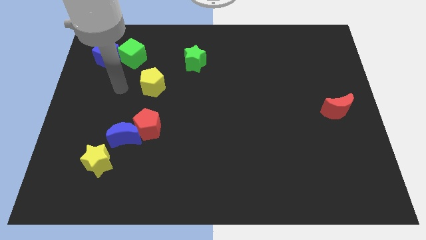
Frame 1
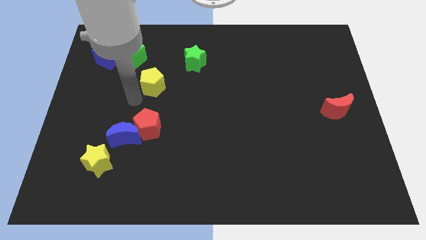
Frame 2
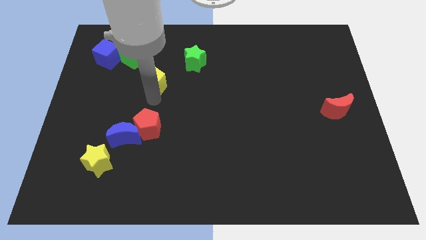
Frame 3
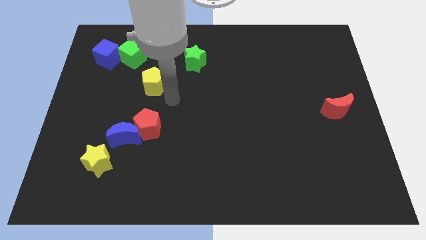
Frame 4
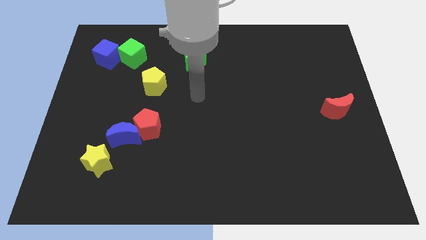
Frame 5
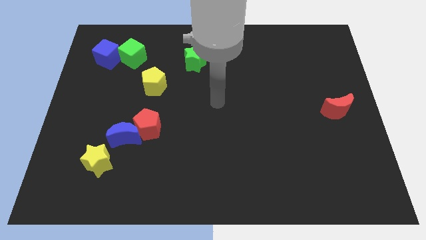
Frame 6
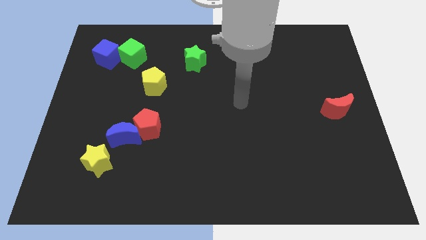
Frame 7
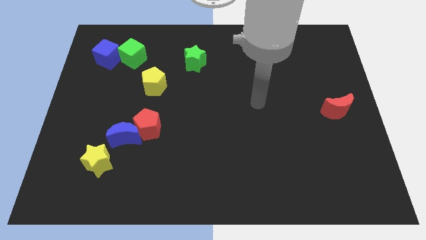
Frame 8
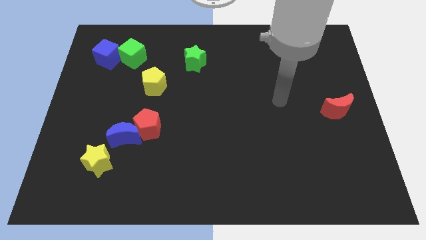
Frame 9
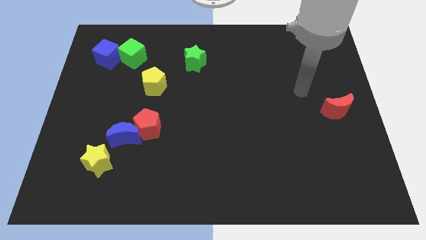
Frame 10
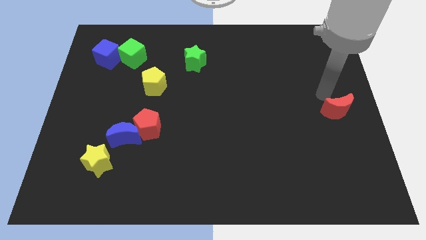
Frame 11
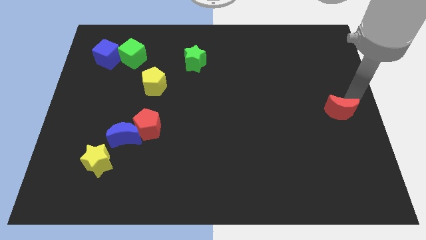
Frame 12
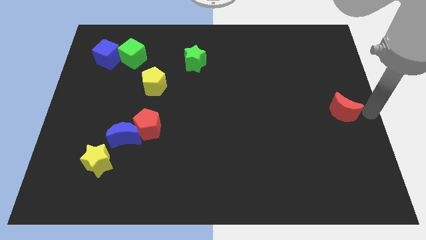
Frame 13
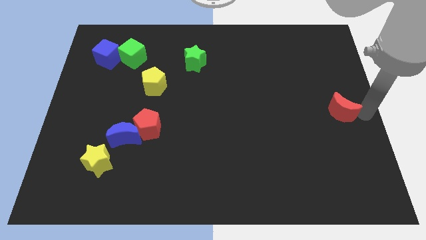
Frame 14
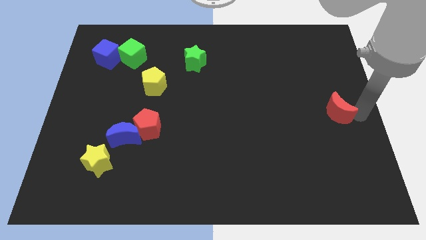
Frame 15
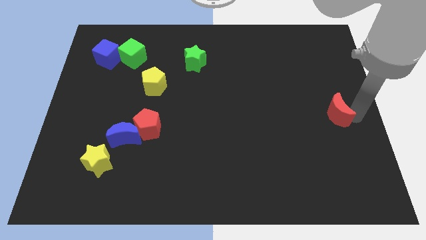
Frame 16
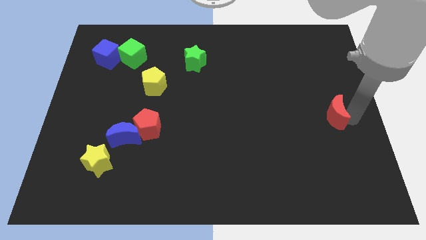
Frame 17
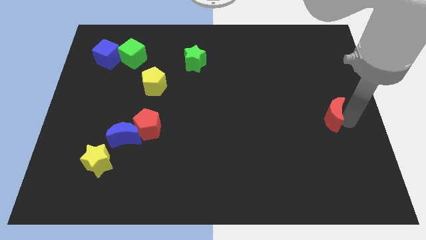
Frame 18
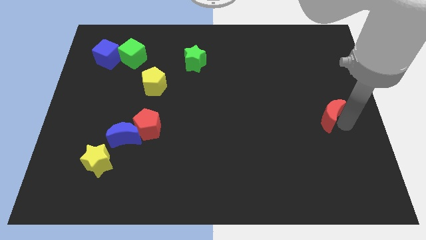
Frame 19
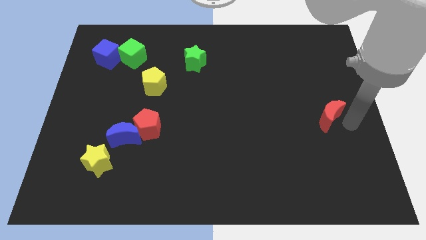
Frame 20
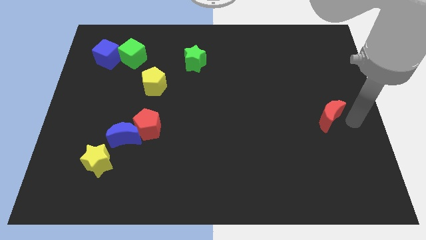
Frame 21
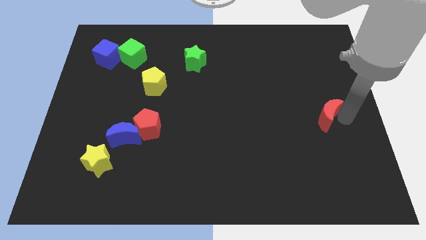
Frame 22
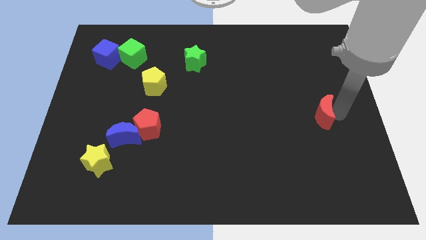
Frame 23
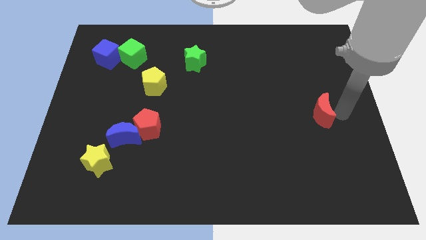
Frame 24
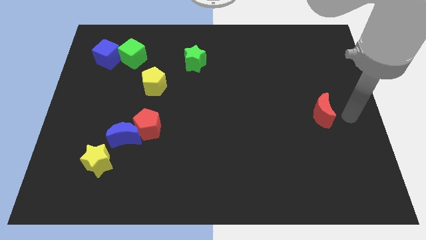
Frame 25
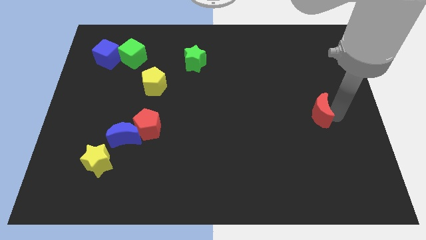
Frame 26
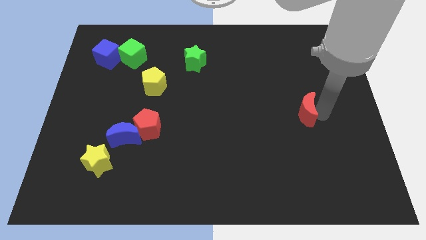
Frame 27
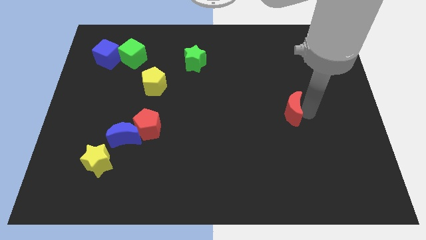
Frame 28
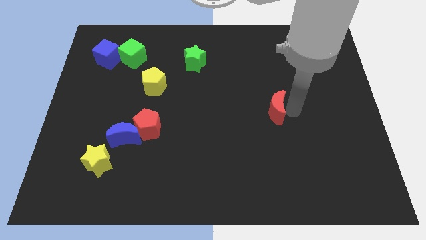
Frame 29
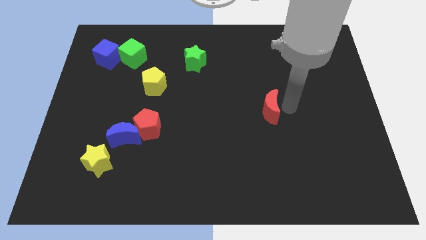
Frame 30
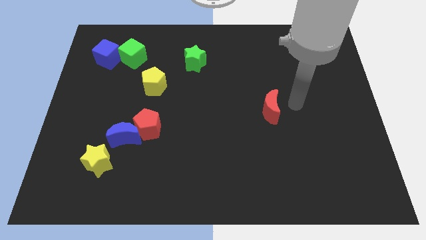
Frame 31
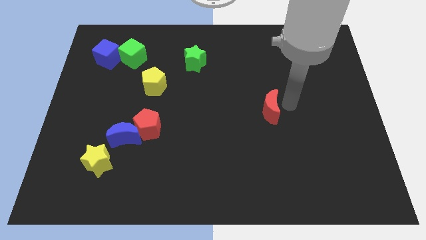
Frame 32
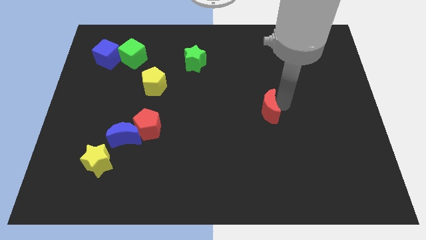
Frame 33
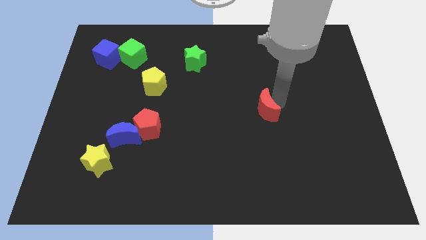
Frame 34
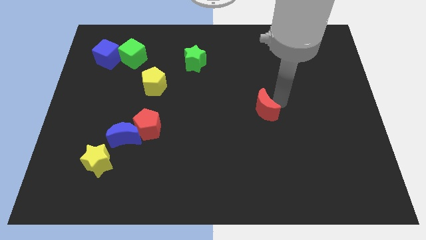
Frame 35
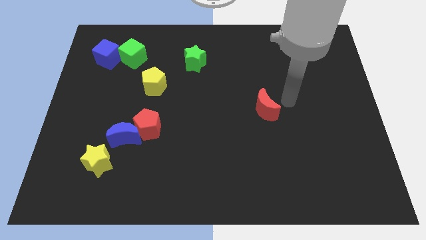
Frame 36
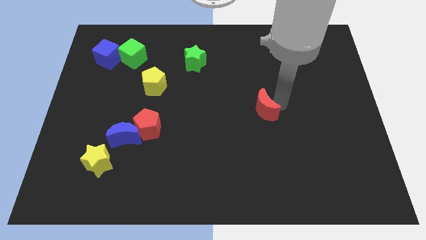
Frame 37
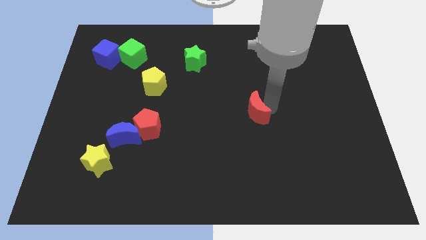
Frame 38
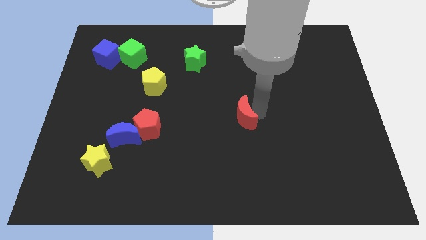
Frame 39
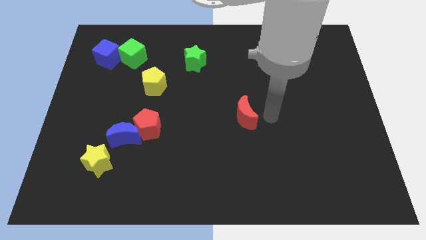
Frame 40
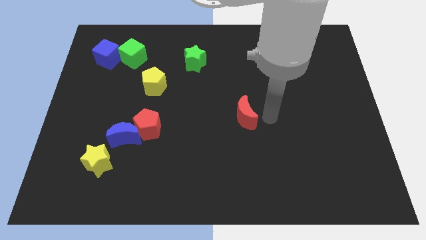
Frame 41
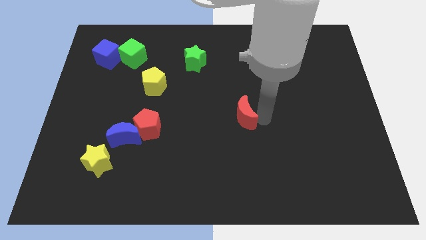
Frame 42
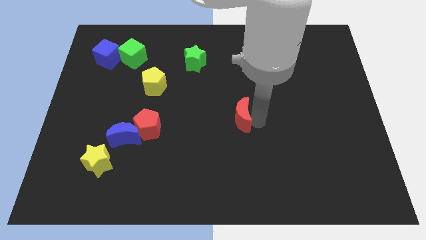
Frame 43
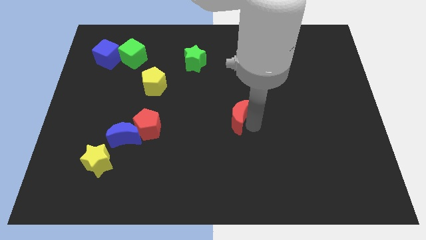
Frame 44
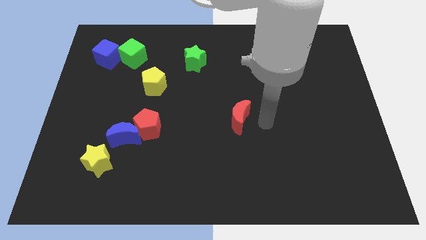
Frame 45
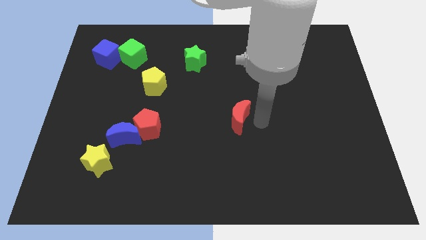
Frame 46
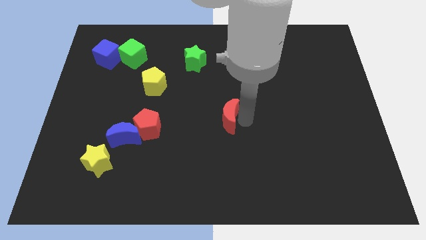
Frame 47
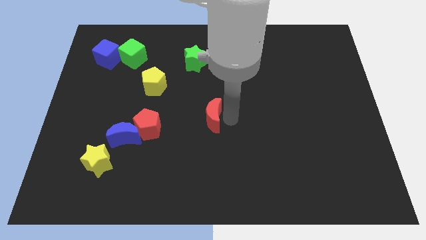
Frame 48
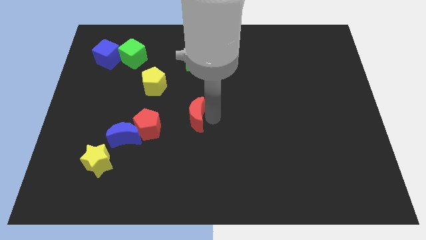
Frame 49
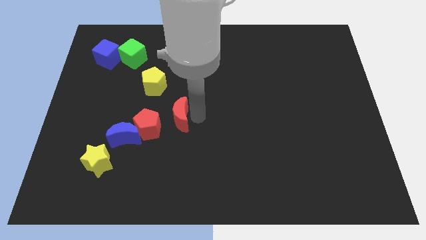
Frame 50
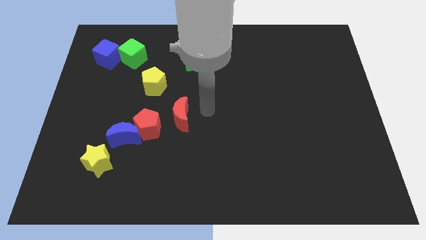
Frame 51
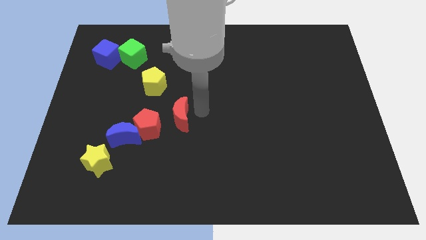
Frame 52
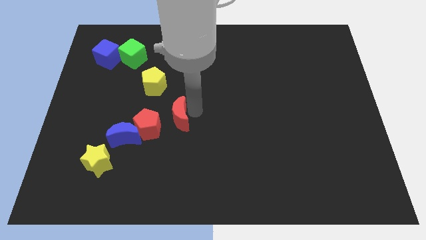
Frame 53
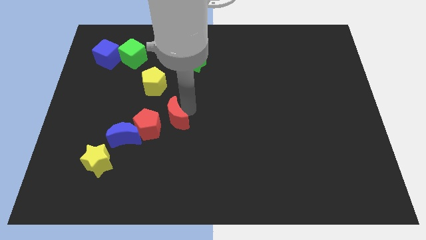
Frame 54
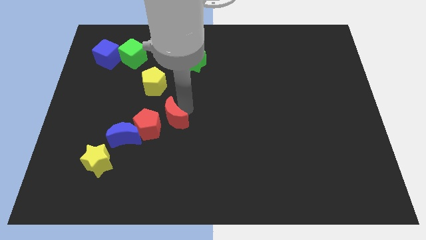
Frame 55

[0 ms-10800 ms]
slide the red moon next to the red pentagon

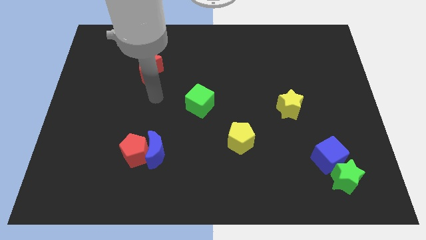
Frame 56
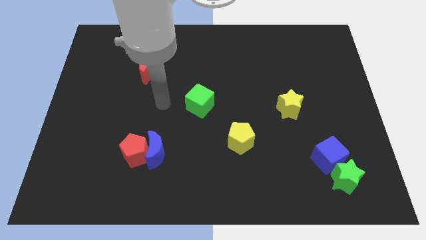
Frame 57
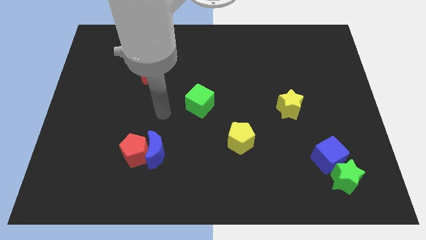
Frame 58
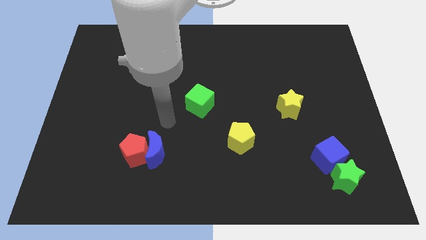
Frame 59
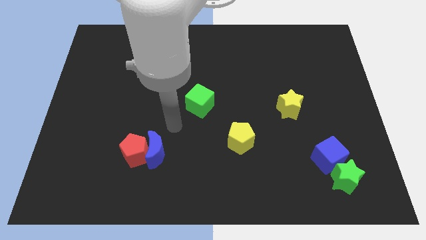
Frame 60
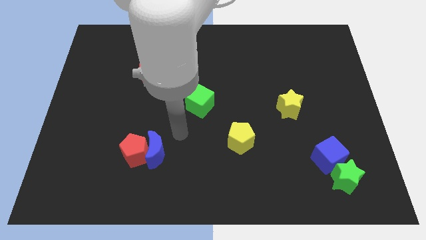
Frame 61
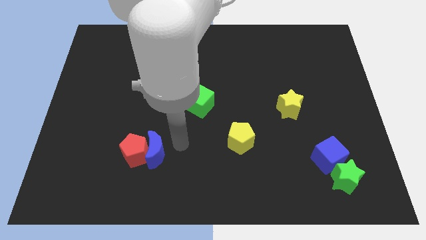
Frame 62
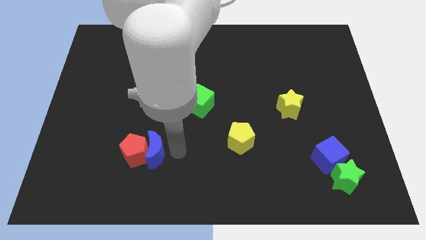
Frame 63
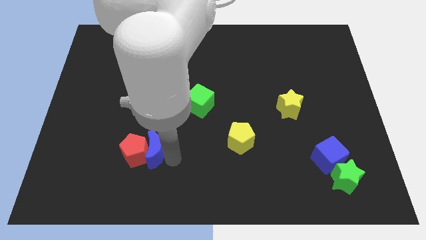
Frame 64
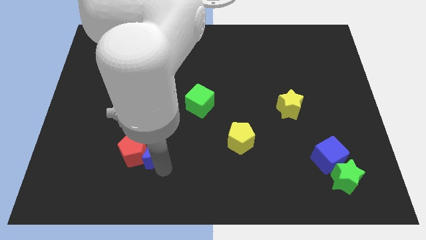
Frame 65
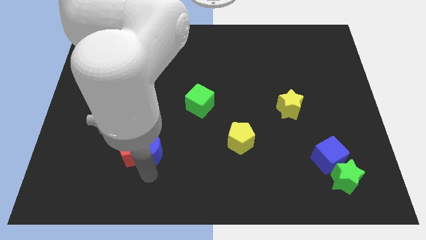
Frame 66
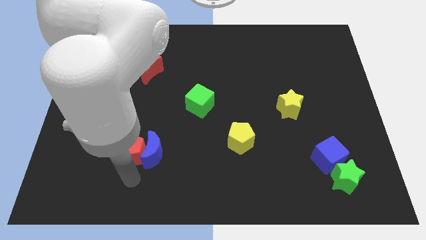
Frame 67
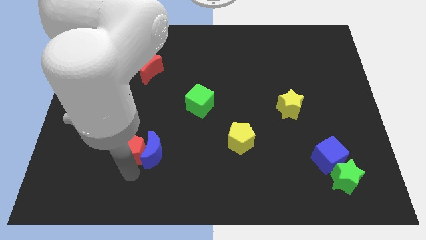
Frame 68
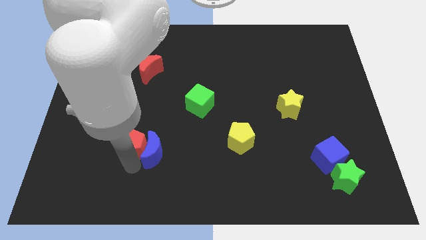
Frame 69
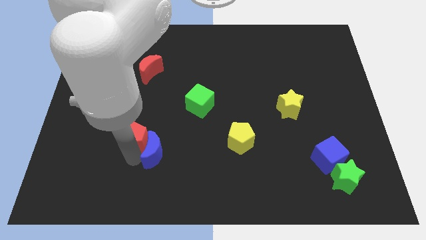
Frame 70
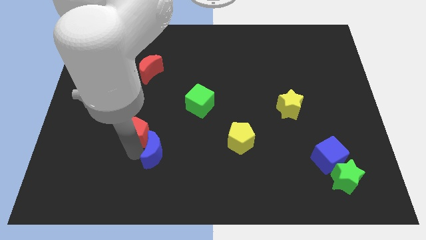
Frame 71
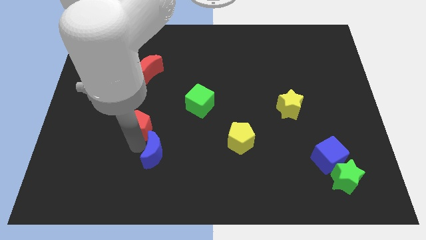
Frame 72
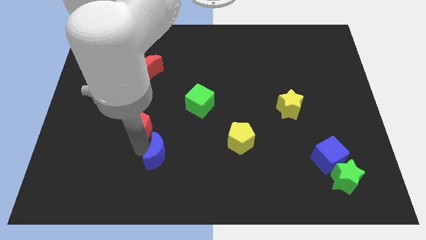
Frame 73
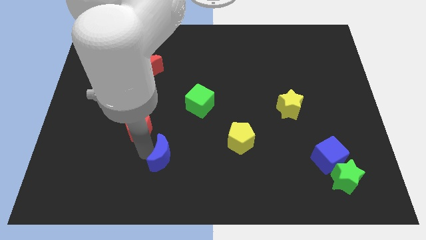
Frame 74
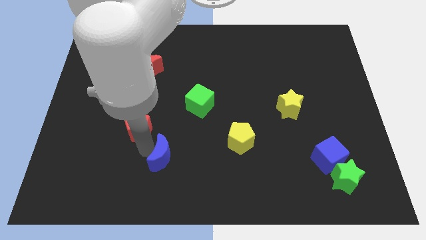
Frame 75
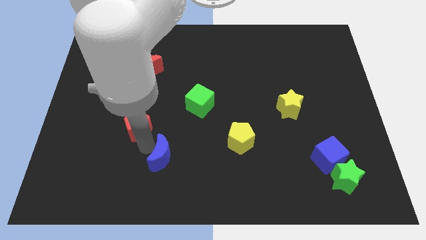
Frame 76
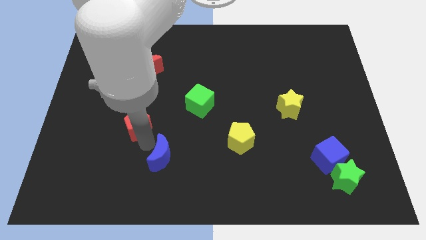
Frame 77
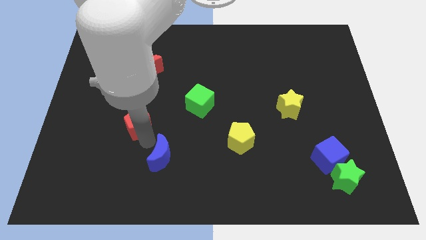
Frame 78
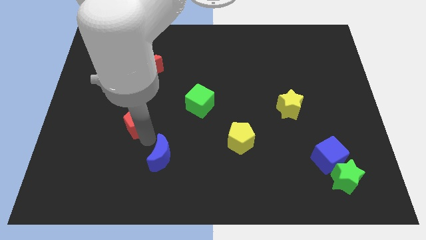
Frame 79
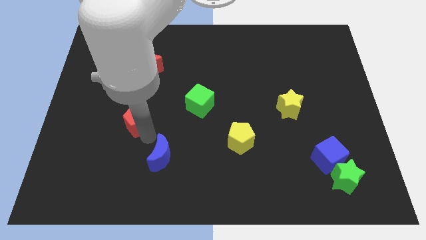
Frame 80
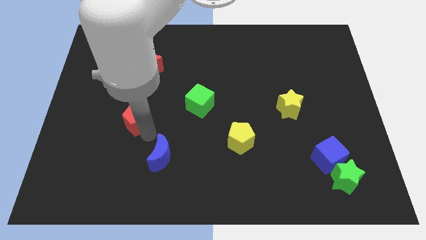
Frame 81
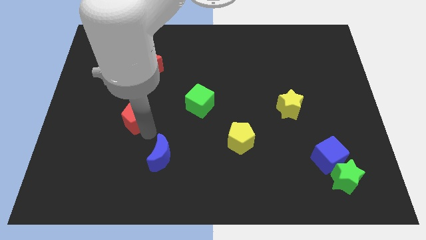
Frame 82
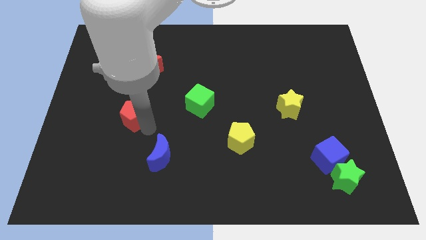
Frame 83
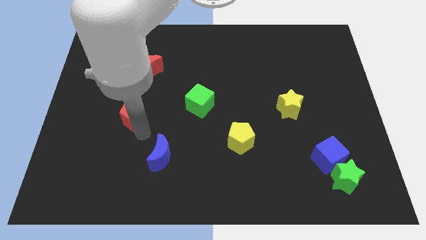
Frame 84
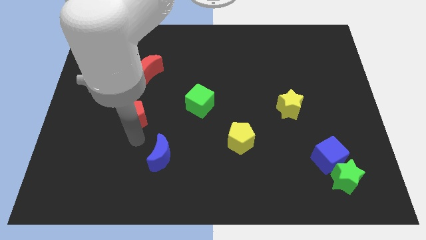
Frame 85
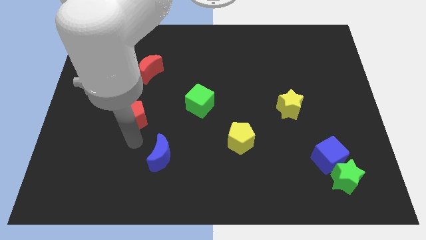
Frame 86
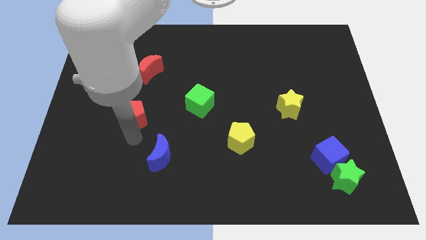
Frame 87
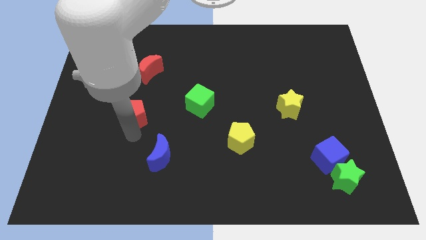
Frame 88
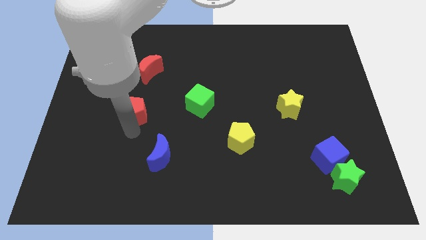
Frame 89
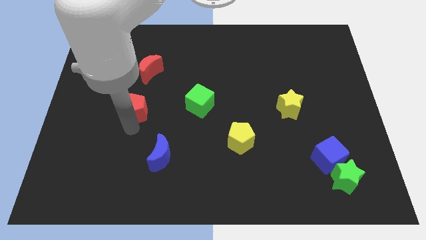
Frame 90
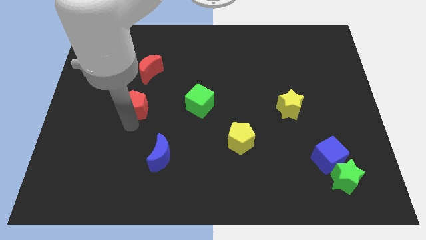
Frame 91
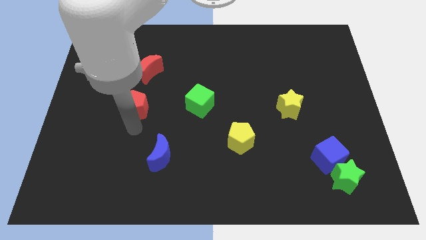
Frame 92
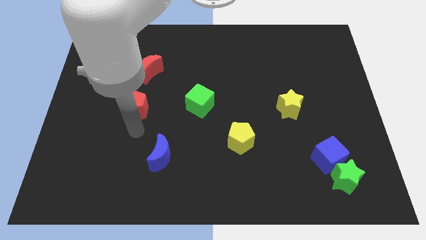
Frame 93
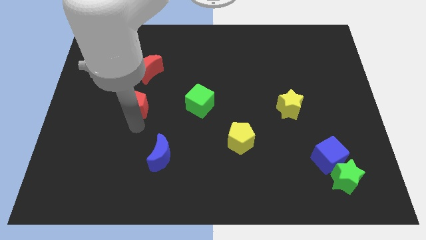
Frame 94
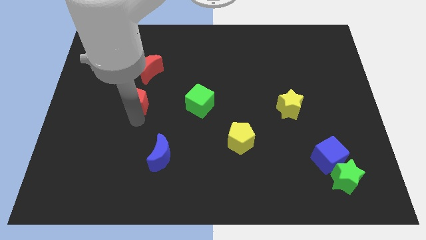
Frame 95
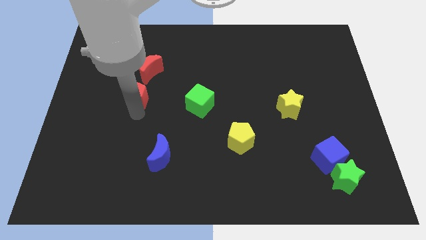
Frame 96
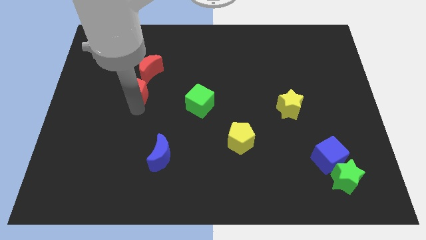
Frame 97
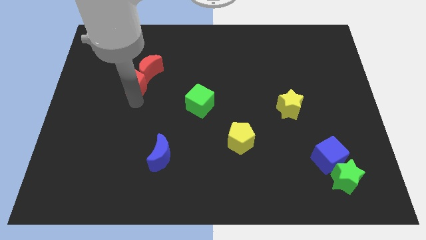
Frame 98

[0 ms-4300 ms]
put the red pentagon towards the red moon
